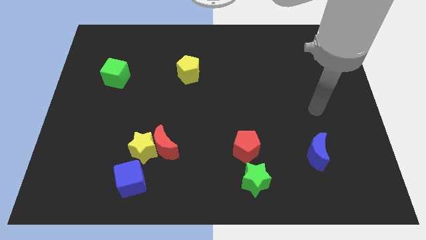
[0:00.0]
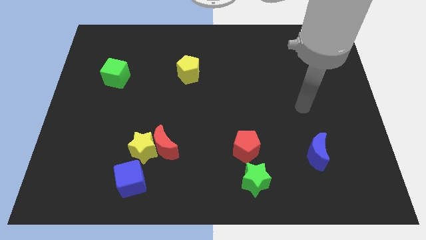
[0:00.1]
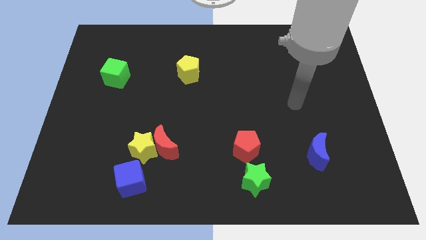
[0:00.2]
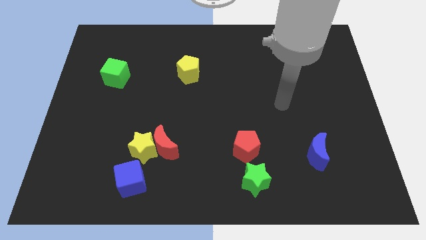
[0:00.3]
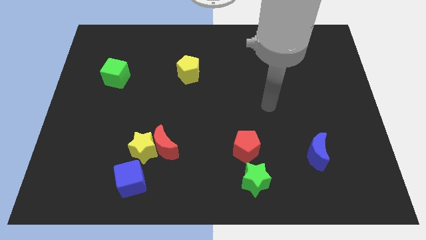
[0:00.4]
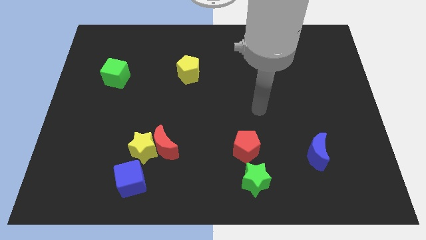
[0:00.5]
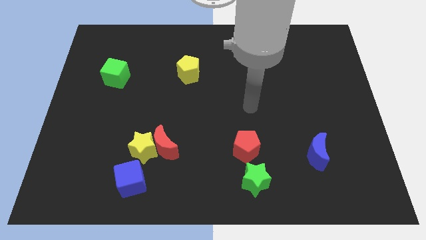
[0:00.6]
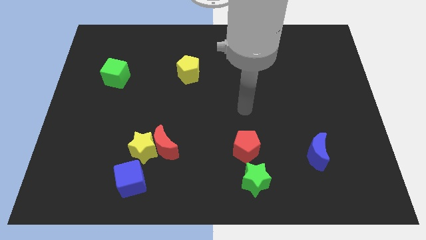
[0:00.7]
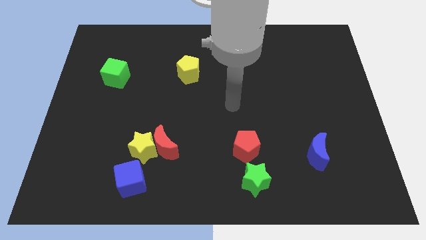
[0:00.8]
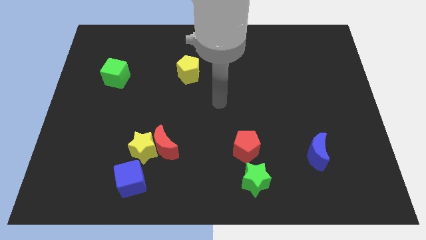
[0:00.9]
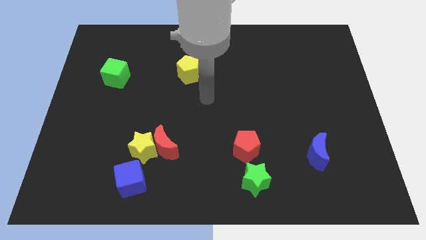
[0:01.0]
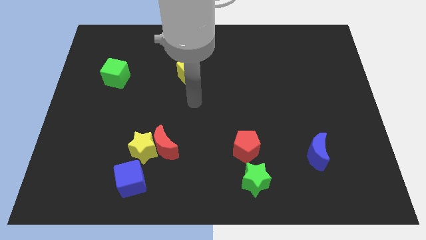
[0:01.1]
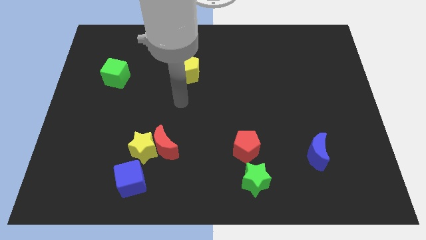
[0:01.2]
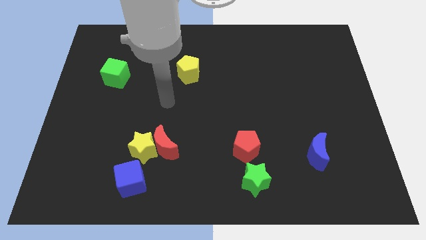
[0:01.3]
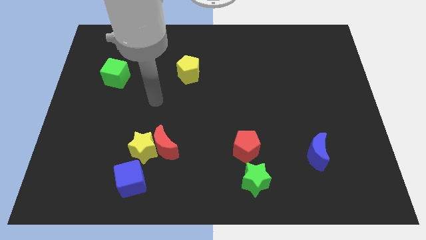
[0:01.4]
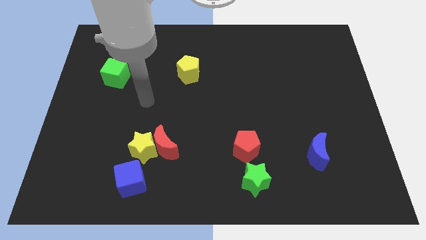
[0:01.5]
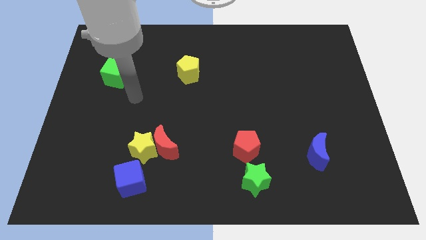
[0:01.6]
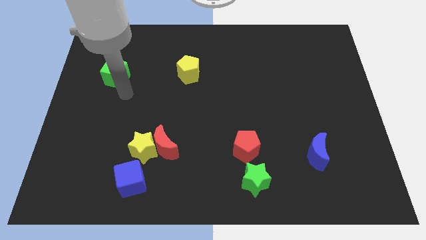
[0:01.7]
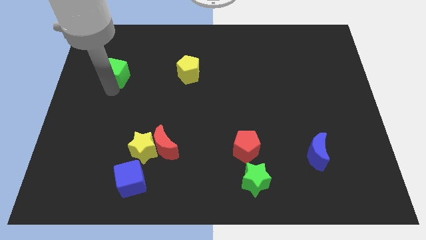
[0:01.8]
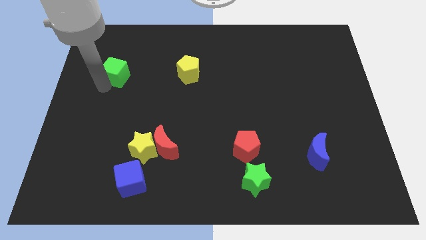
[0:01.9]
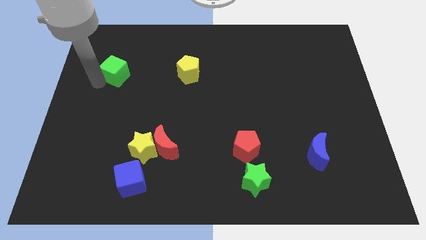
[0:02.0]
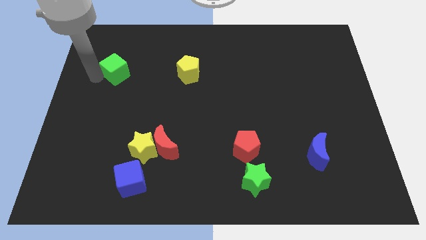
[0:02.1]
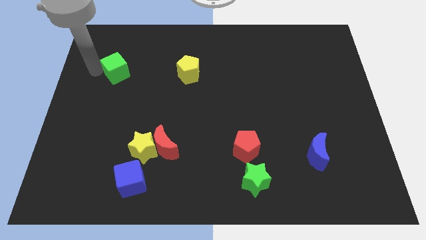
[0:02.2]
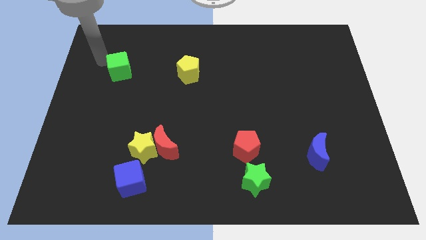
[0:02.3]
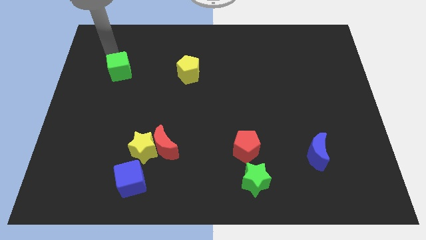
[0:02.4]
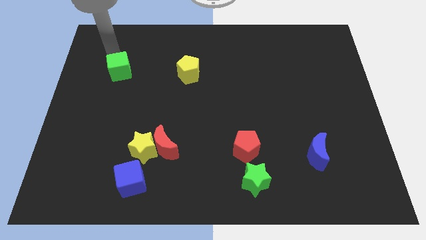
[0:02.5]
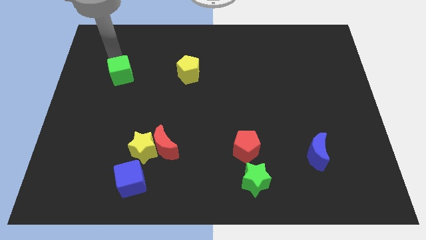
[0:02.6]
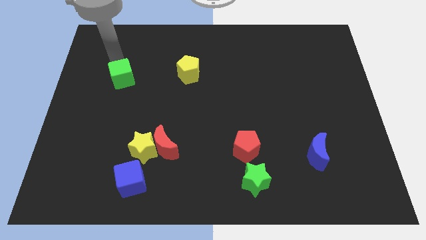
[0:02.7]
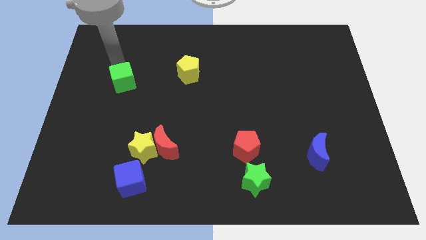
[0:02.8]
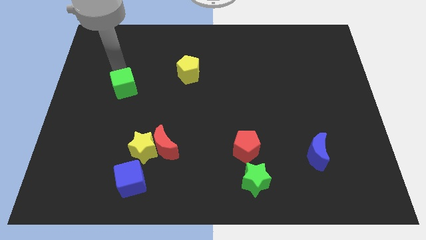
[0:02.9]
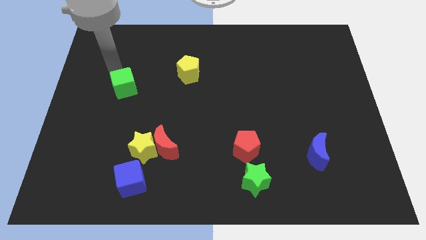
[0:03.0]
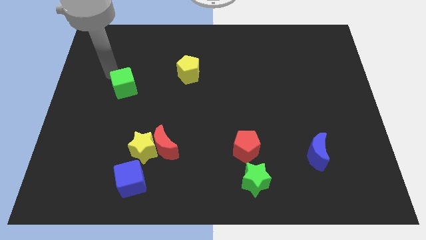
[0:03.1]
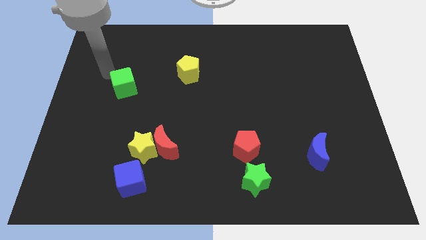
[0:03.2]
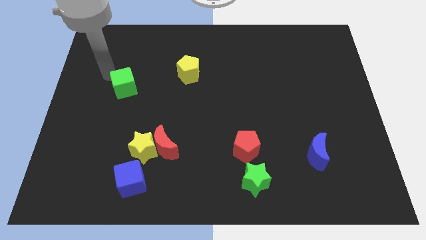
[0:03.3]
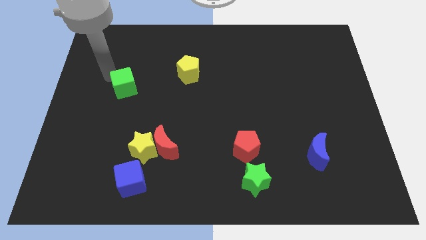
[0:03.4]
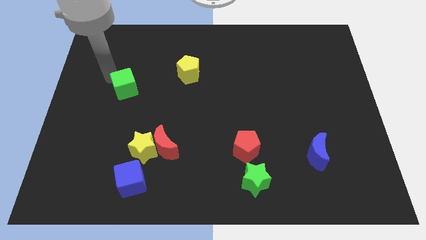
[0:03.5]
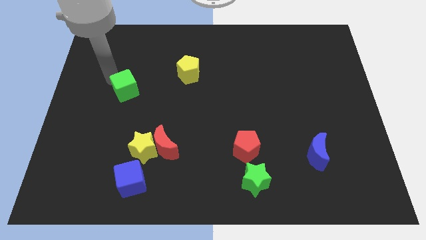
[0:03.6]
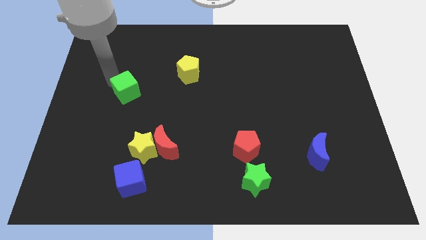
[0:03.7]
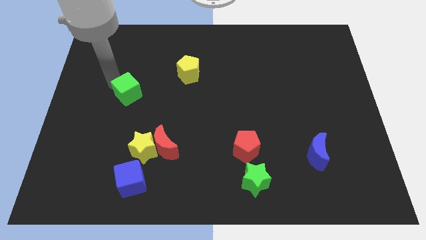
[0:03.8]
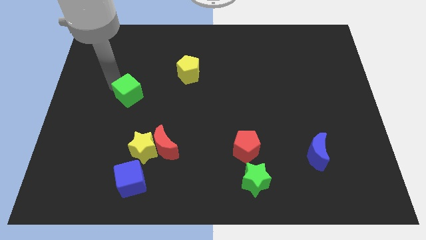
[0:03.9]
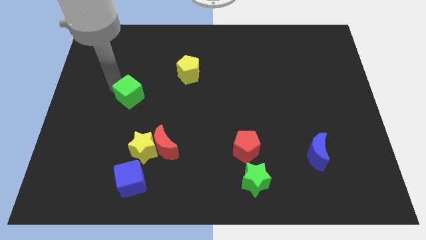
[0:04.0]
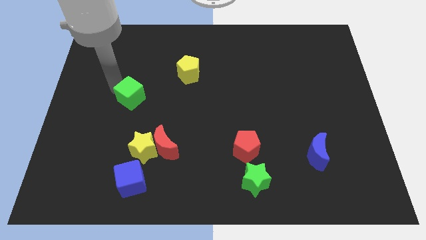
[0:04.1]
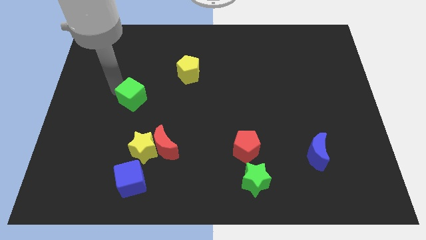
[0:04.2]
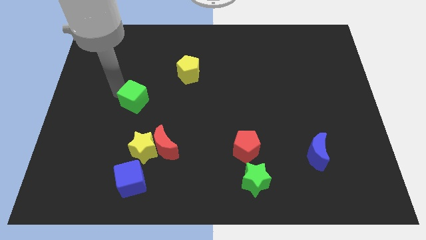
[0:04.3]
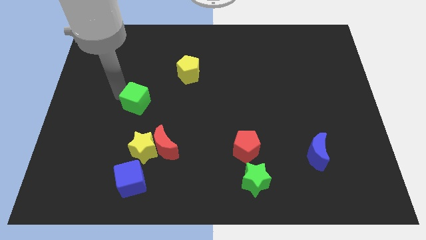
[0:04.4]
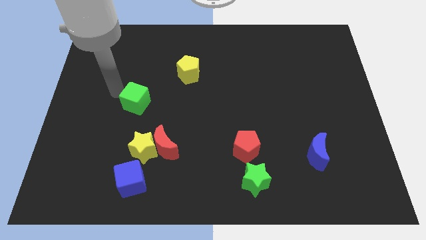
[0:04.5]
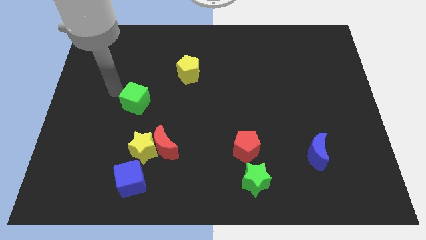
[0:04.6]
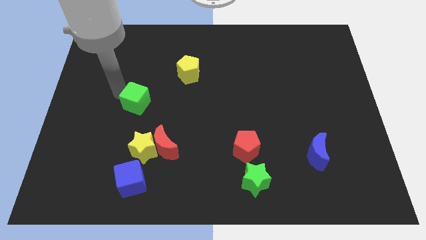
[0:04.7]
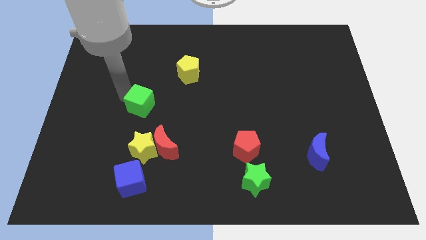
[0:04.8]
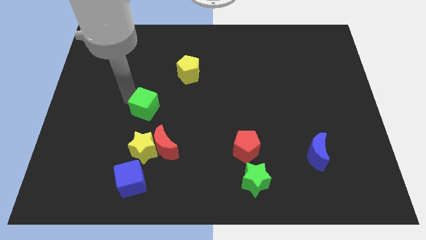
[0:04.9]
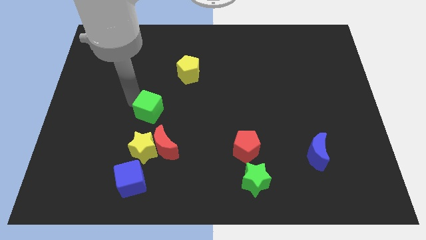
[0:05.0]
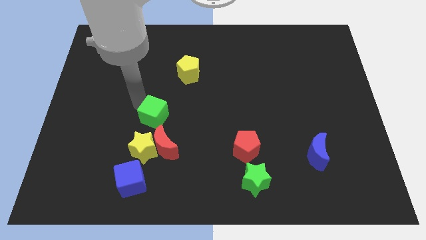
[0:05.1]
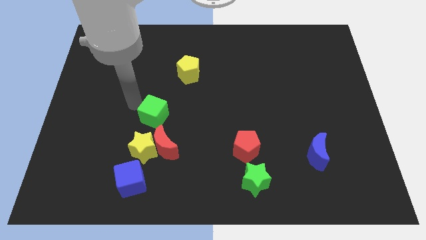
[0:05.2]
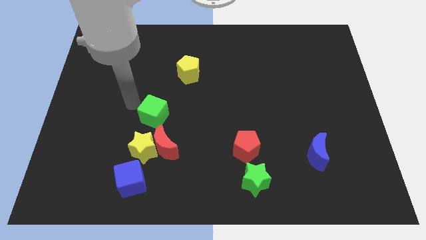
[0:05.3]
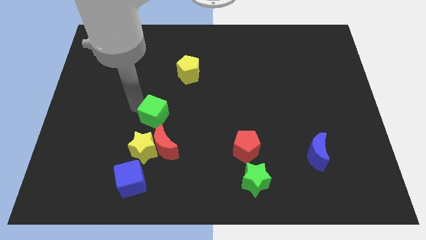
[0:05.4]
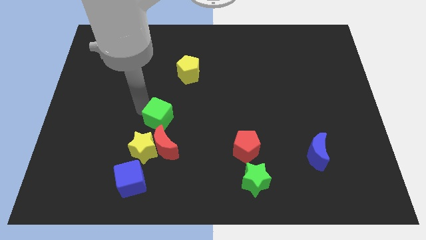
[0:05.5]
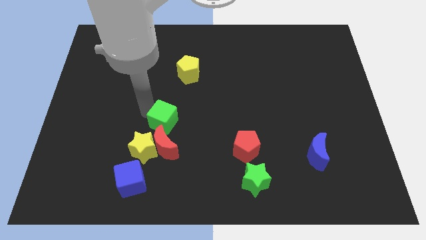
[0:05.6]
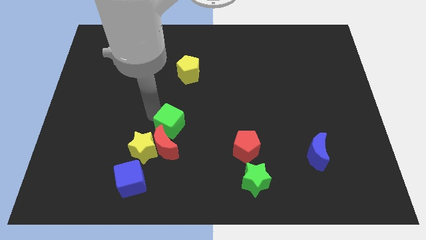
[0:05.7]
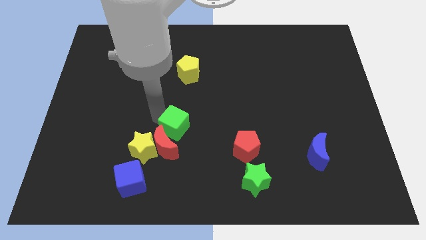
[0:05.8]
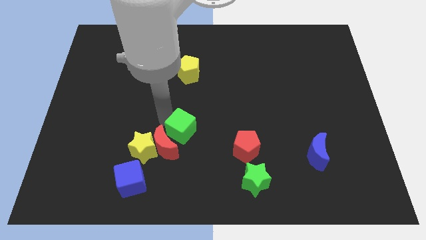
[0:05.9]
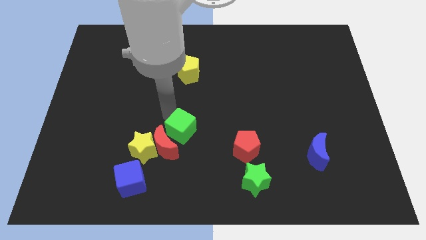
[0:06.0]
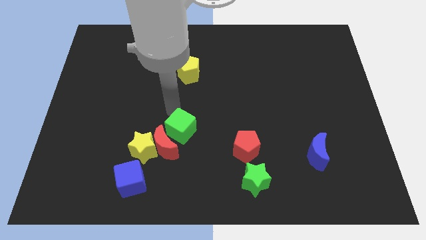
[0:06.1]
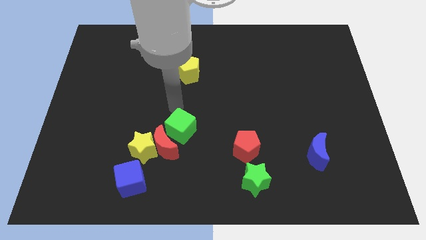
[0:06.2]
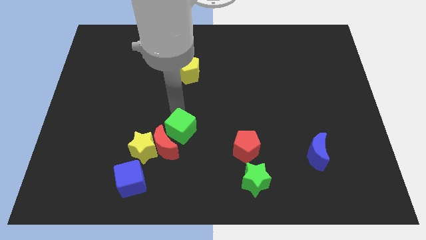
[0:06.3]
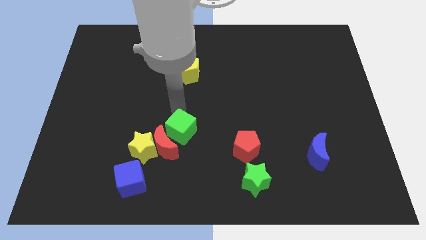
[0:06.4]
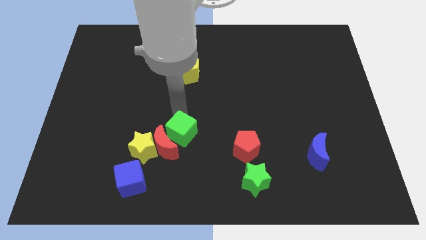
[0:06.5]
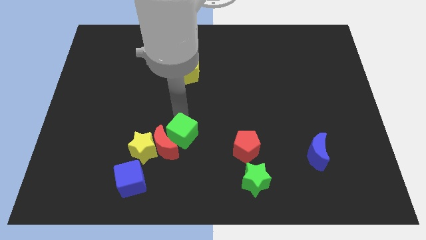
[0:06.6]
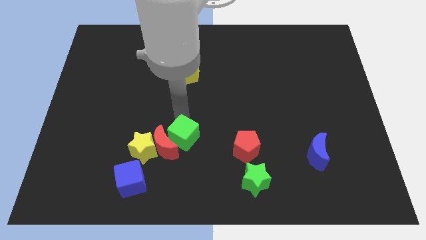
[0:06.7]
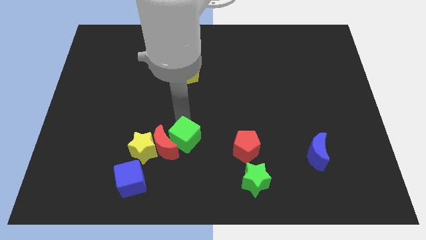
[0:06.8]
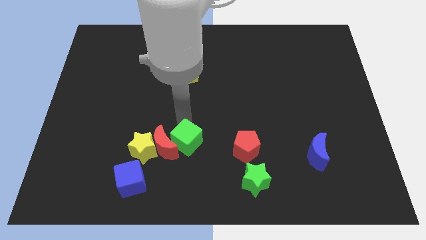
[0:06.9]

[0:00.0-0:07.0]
move the green cube to the bottom right of the red moon
